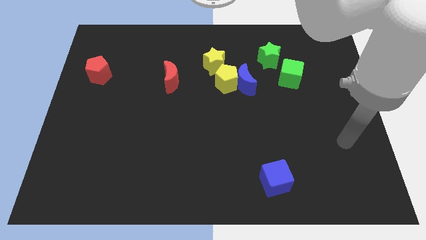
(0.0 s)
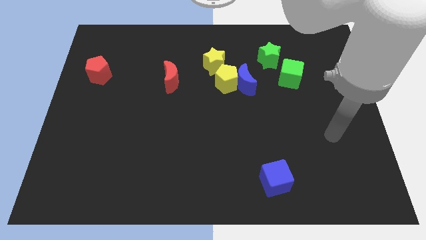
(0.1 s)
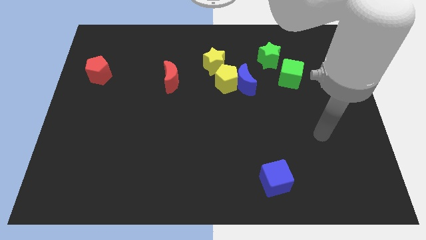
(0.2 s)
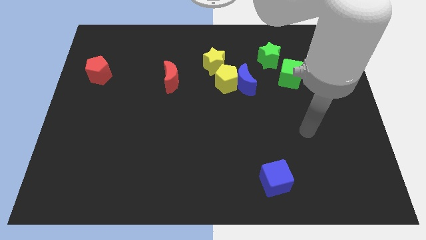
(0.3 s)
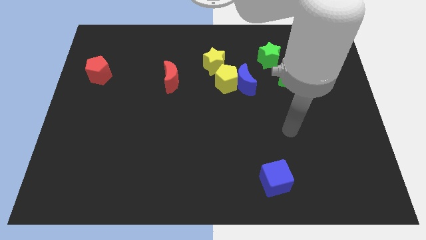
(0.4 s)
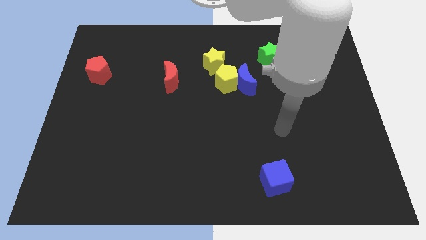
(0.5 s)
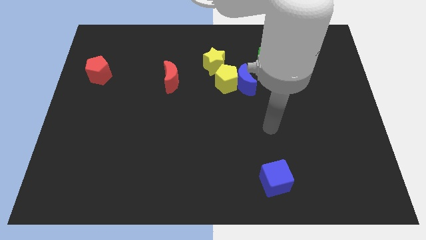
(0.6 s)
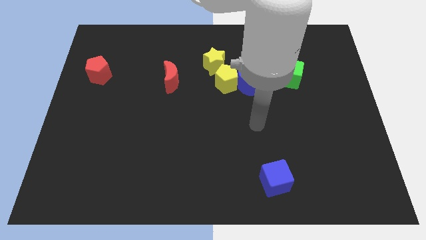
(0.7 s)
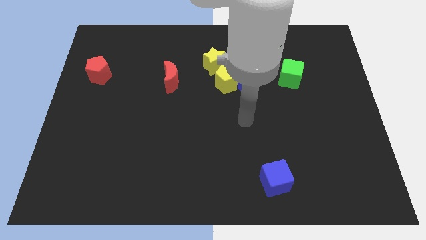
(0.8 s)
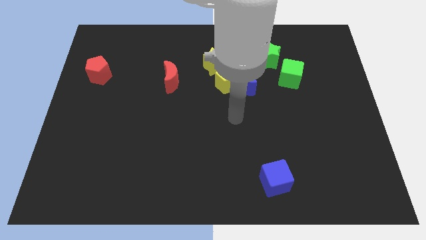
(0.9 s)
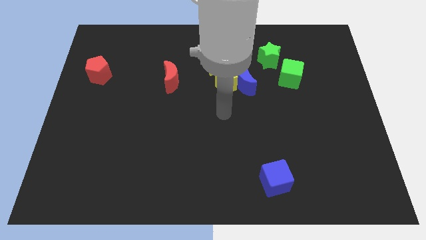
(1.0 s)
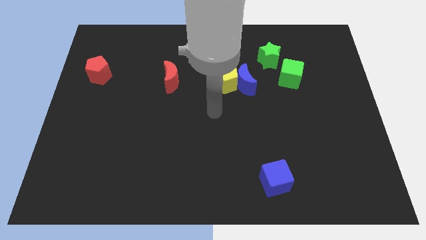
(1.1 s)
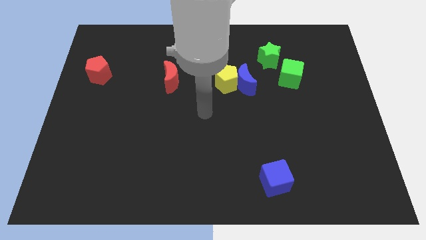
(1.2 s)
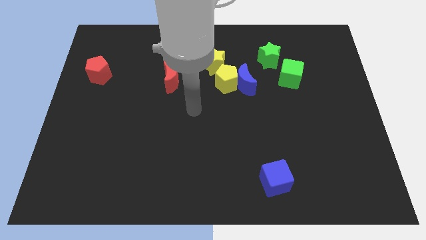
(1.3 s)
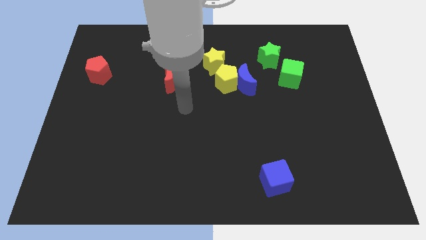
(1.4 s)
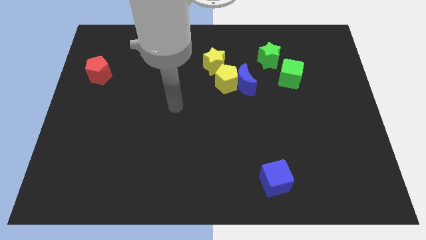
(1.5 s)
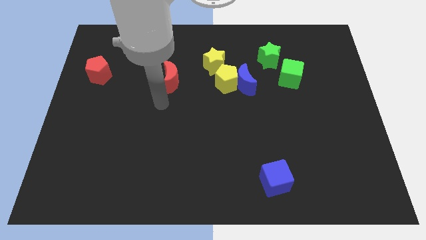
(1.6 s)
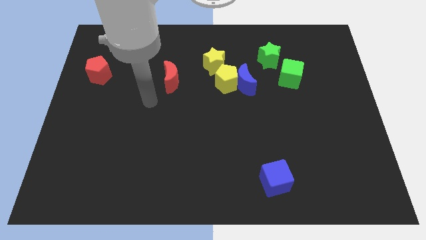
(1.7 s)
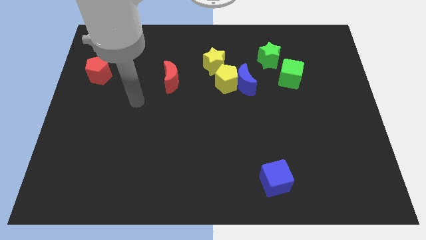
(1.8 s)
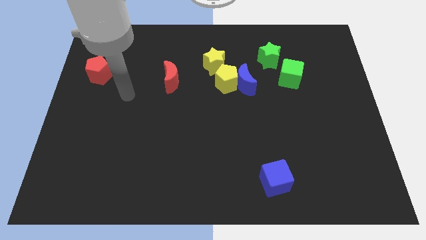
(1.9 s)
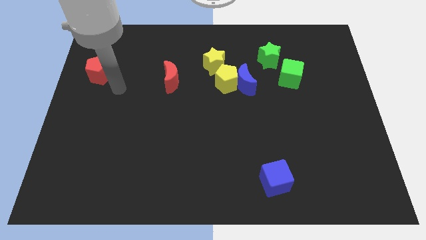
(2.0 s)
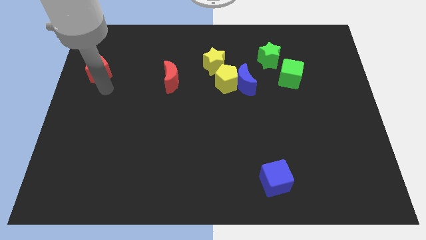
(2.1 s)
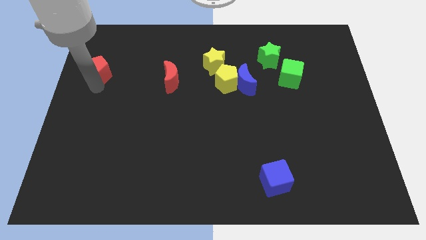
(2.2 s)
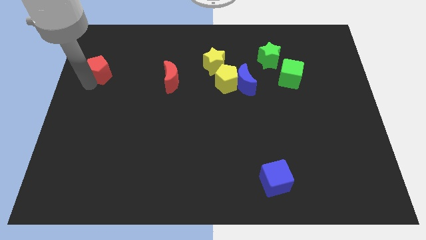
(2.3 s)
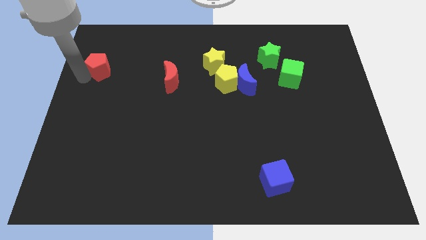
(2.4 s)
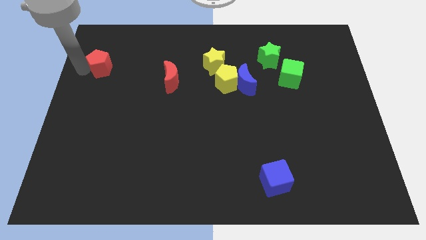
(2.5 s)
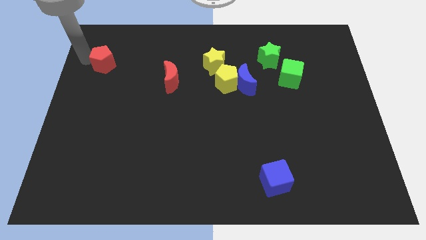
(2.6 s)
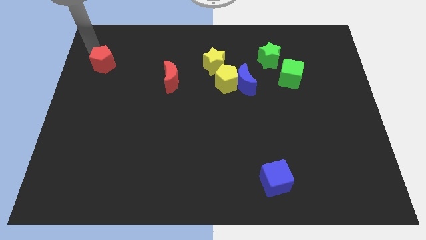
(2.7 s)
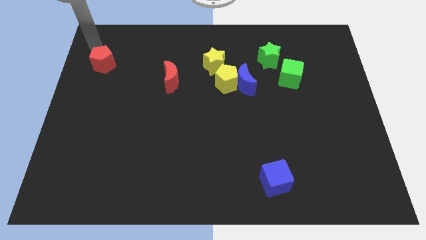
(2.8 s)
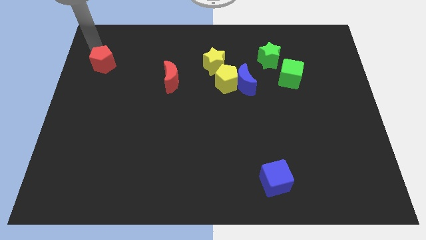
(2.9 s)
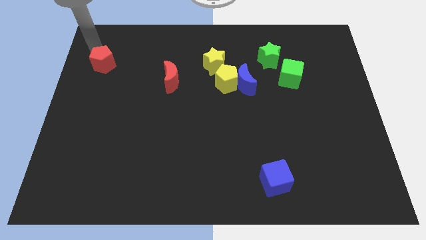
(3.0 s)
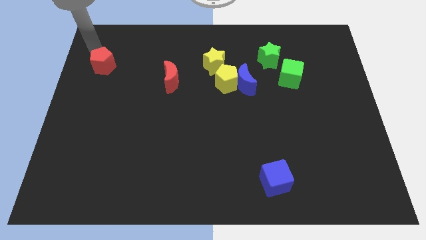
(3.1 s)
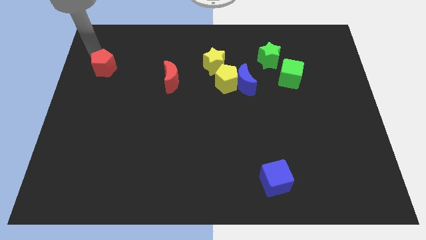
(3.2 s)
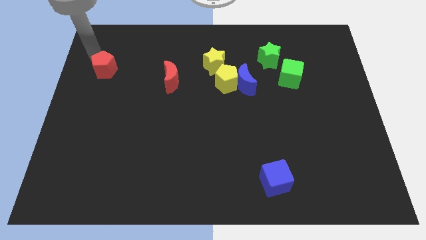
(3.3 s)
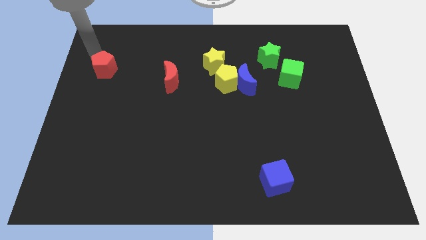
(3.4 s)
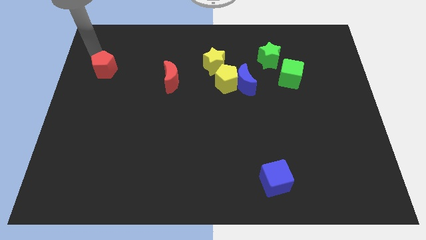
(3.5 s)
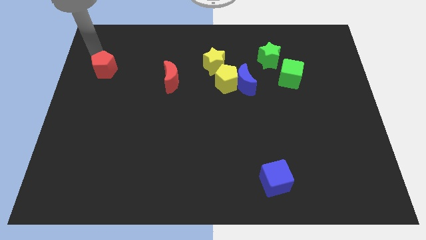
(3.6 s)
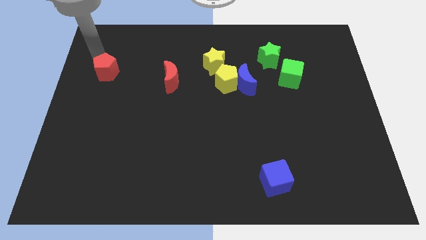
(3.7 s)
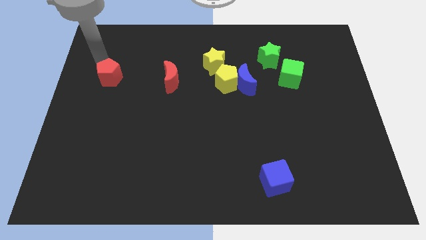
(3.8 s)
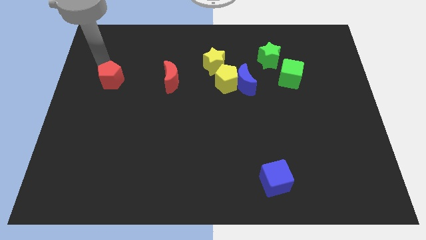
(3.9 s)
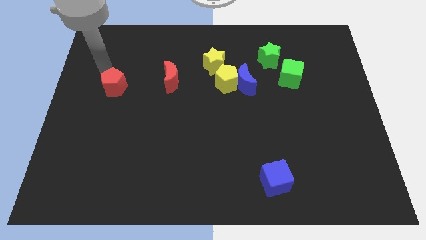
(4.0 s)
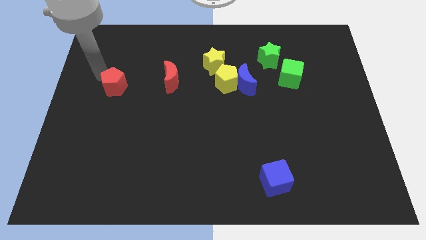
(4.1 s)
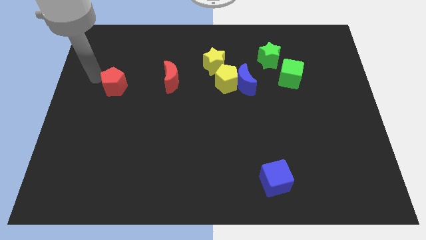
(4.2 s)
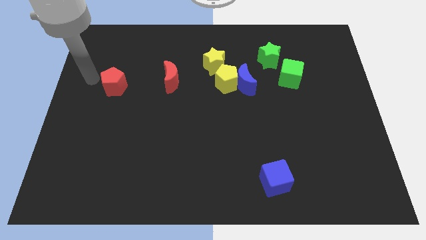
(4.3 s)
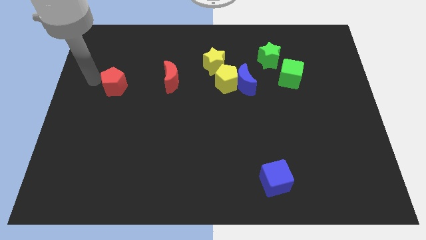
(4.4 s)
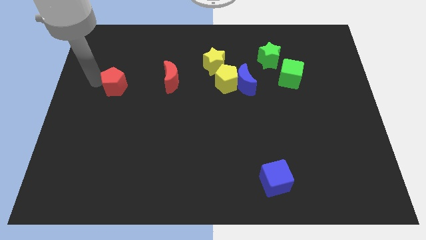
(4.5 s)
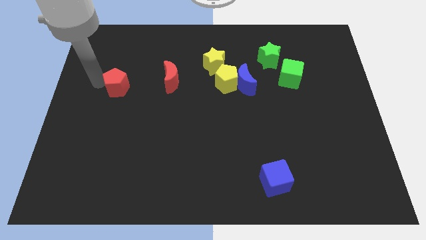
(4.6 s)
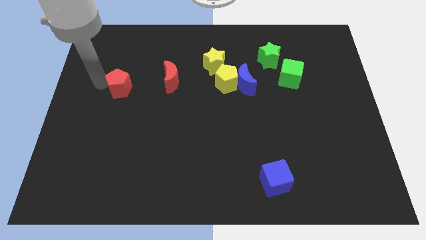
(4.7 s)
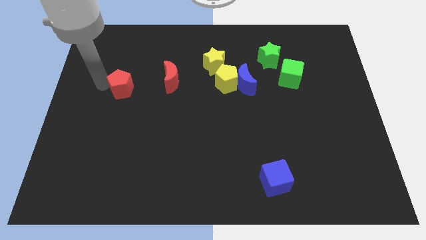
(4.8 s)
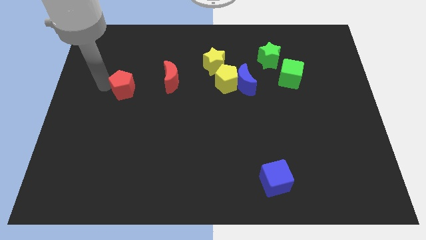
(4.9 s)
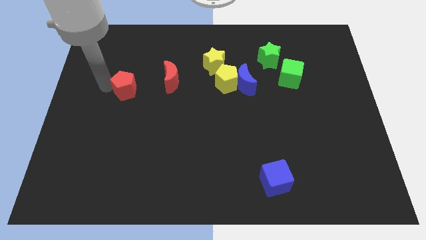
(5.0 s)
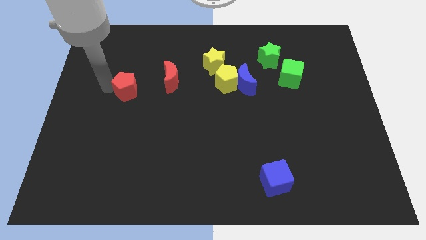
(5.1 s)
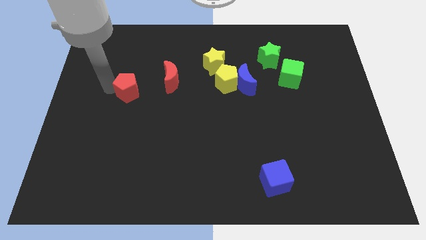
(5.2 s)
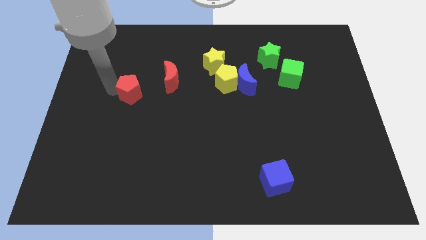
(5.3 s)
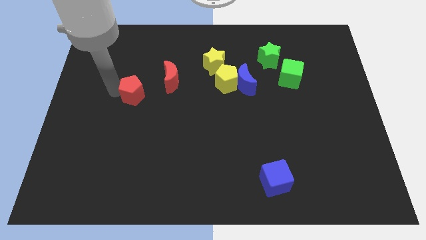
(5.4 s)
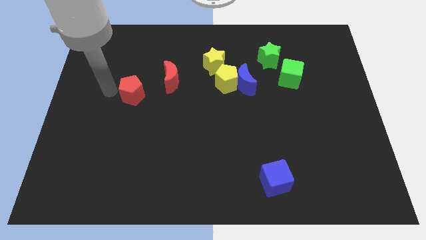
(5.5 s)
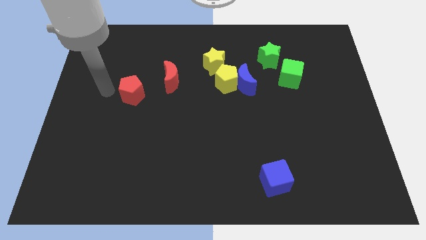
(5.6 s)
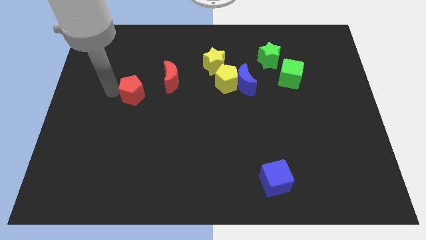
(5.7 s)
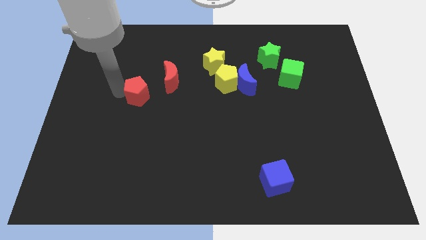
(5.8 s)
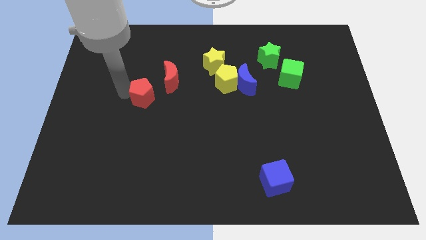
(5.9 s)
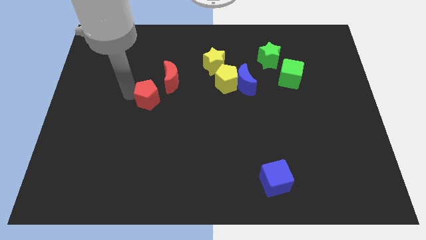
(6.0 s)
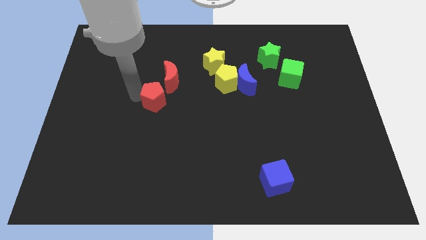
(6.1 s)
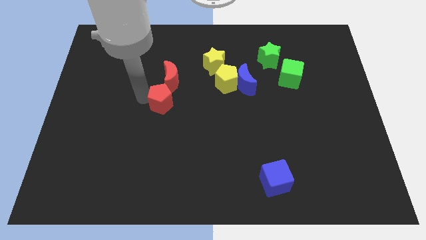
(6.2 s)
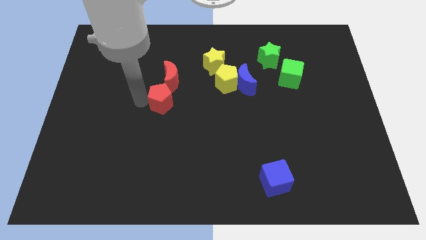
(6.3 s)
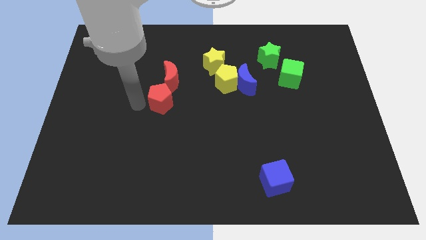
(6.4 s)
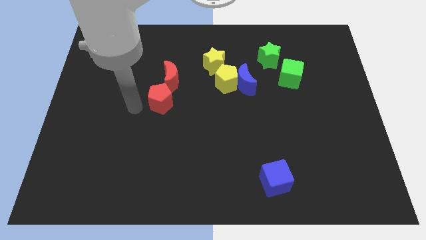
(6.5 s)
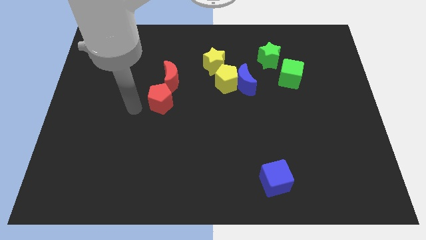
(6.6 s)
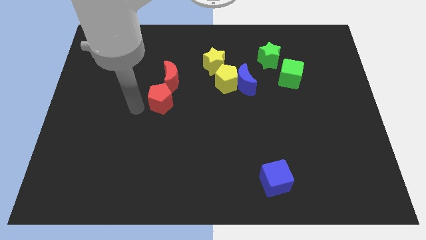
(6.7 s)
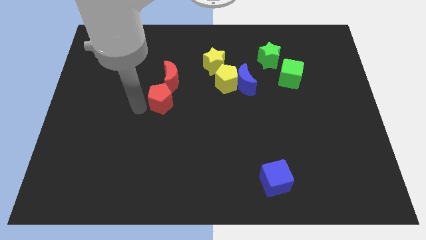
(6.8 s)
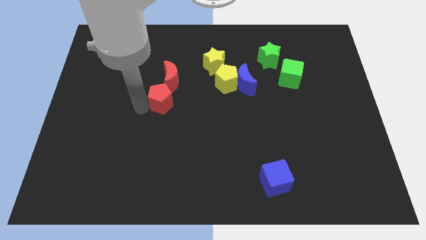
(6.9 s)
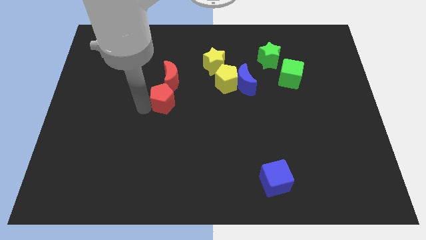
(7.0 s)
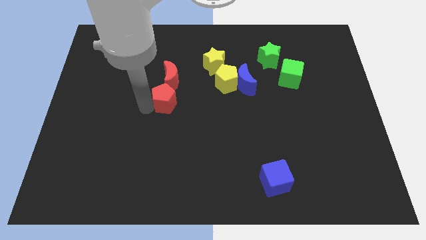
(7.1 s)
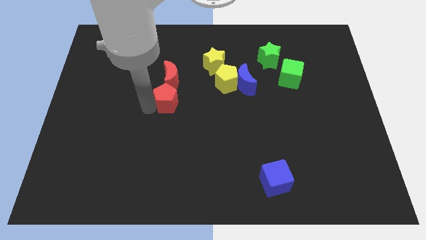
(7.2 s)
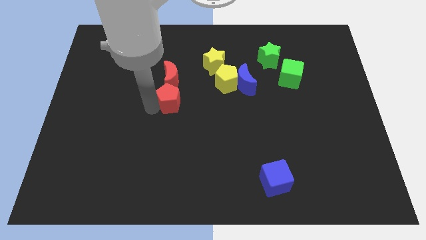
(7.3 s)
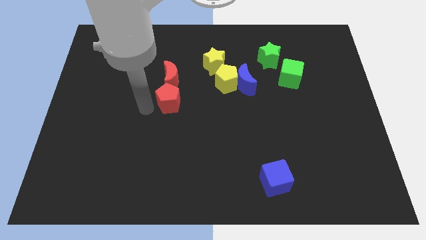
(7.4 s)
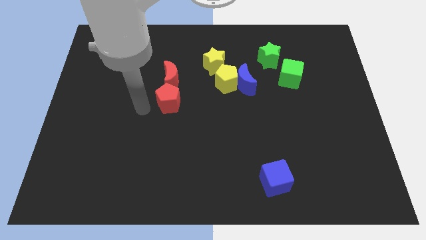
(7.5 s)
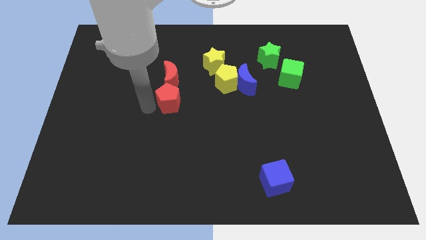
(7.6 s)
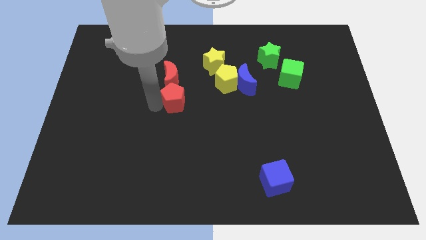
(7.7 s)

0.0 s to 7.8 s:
move the red pentagon diagonally down and to the right of the red moon
